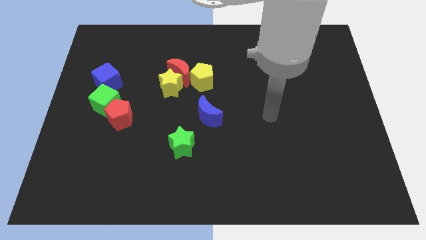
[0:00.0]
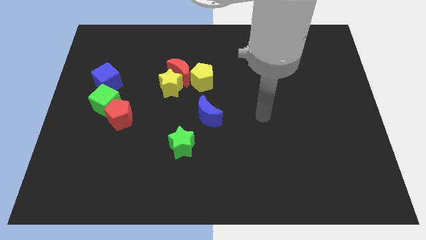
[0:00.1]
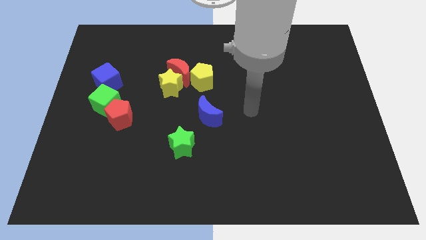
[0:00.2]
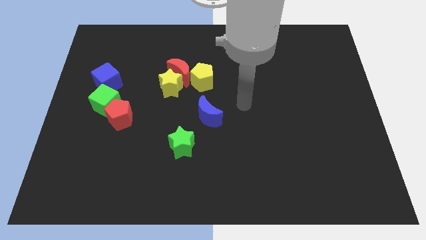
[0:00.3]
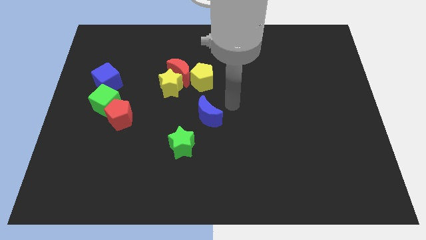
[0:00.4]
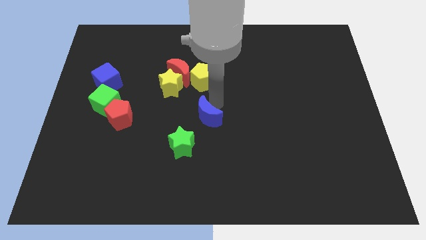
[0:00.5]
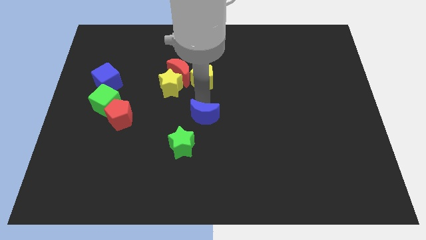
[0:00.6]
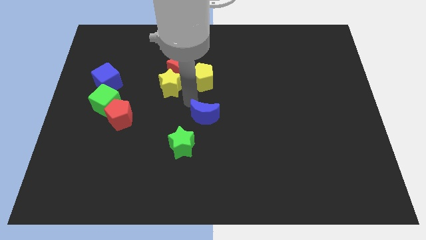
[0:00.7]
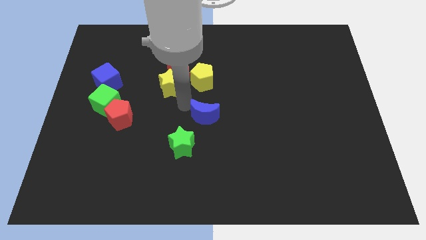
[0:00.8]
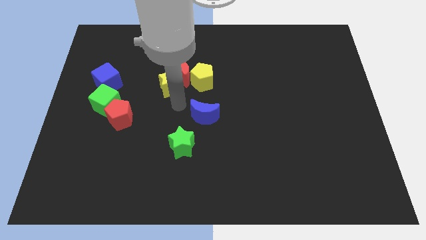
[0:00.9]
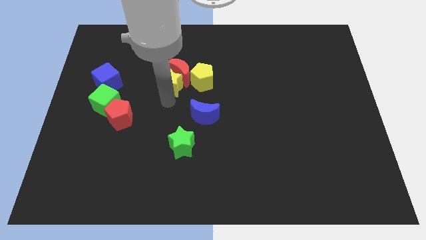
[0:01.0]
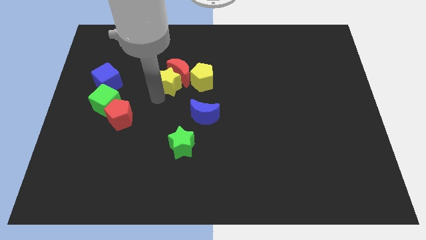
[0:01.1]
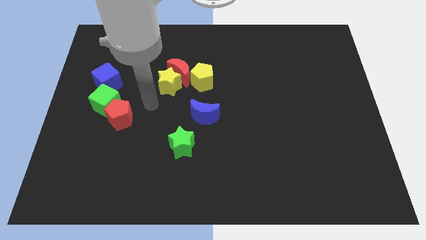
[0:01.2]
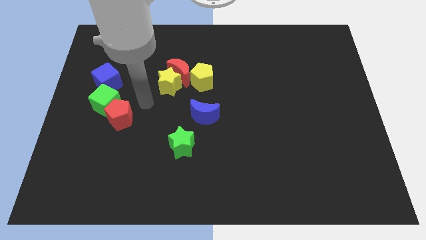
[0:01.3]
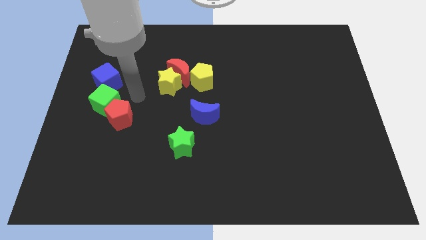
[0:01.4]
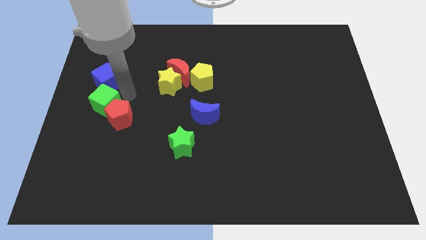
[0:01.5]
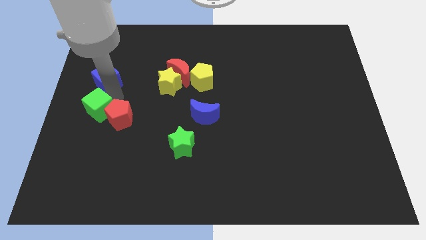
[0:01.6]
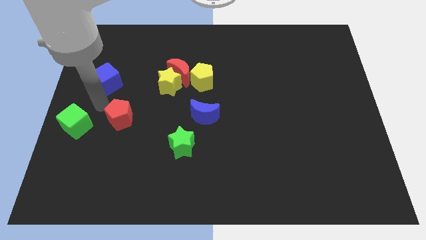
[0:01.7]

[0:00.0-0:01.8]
pull the red pentagon apart from the green cube

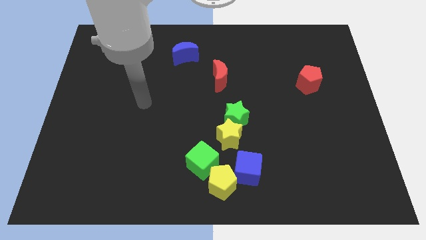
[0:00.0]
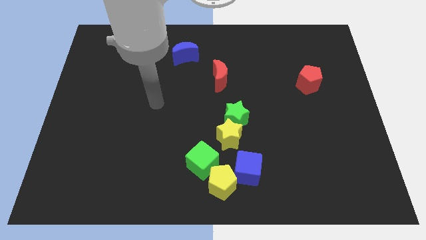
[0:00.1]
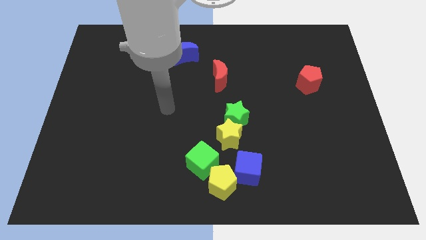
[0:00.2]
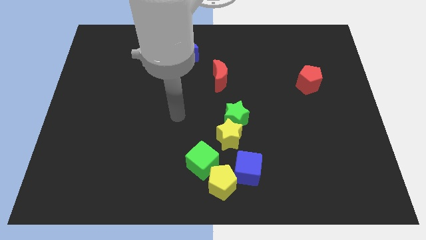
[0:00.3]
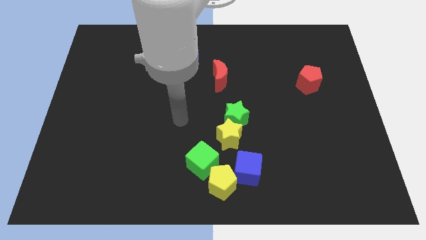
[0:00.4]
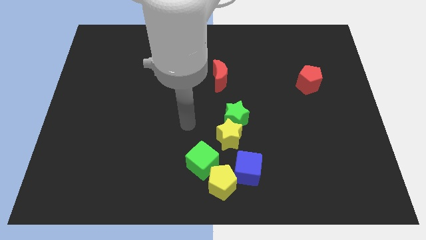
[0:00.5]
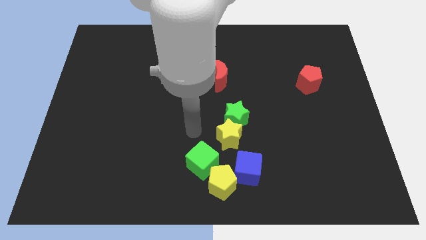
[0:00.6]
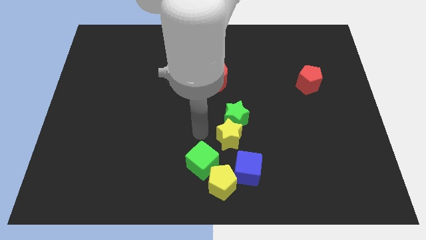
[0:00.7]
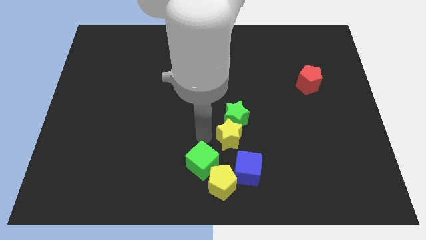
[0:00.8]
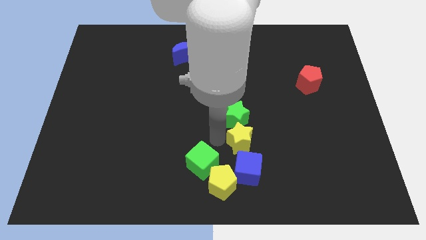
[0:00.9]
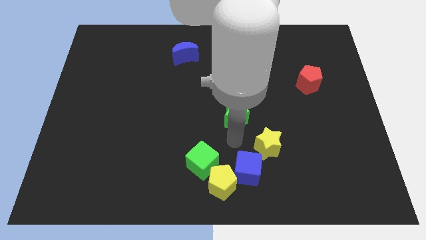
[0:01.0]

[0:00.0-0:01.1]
move the green star away from the yellow star

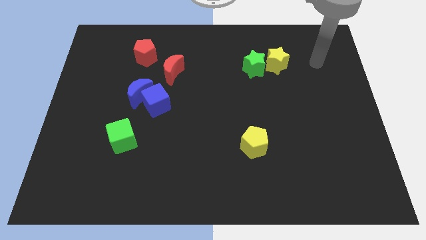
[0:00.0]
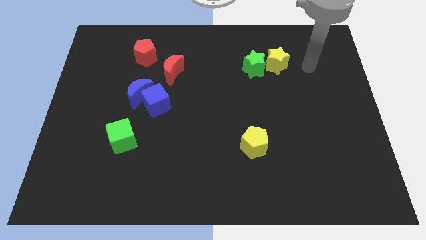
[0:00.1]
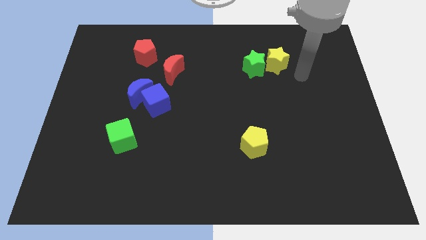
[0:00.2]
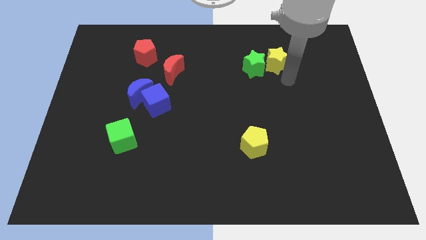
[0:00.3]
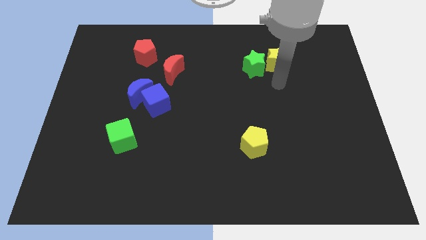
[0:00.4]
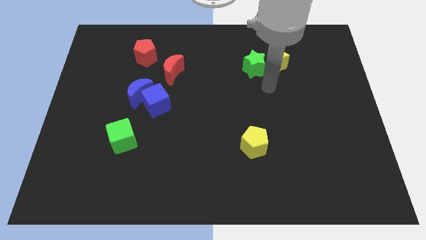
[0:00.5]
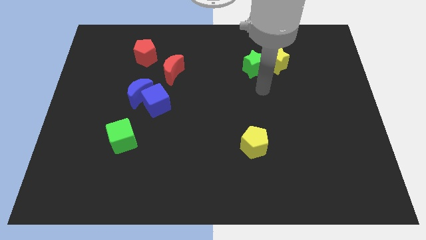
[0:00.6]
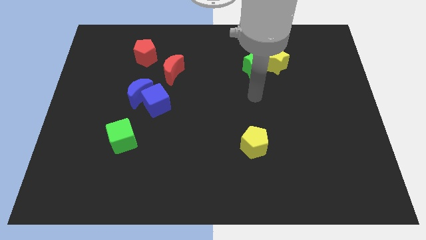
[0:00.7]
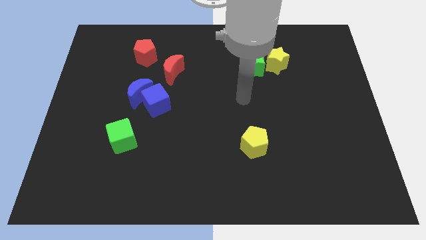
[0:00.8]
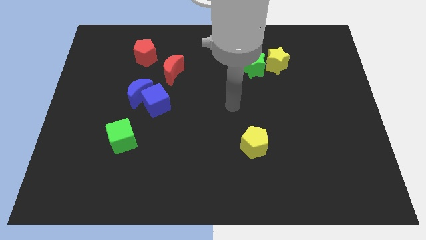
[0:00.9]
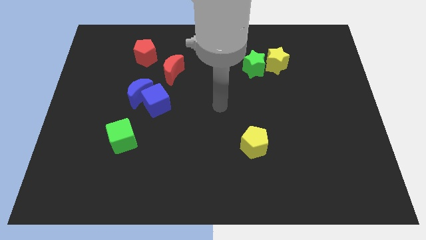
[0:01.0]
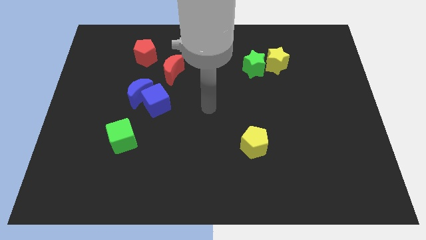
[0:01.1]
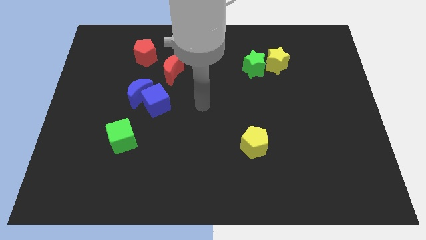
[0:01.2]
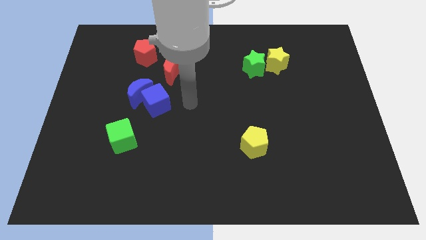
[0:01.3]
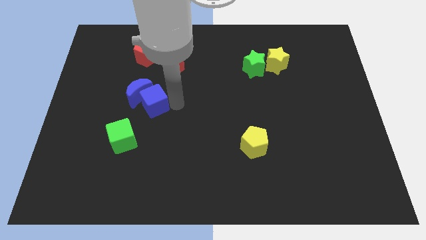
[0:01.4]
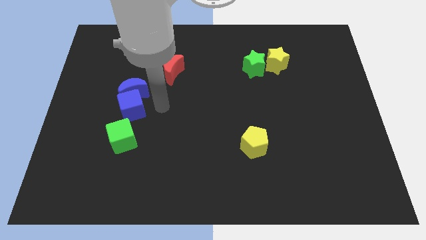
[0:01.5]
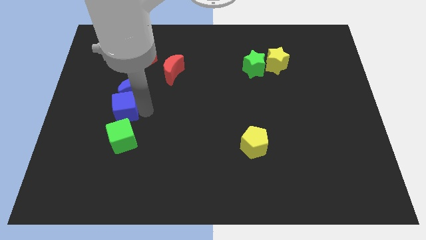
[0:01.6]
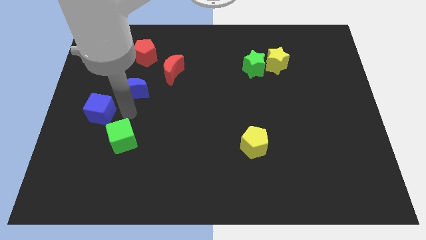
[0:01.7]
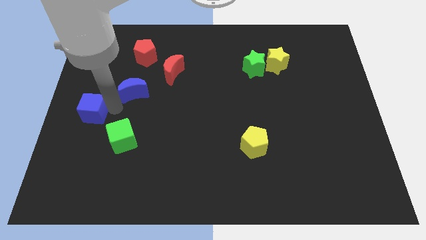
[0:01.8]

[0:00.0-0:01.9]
pull the blue moon apart from the blue cube

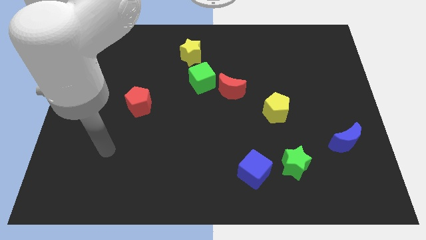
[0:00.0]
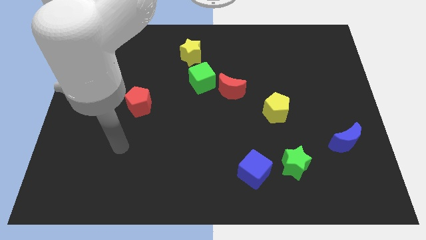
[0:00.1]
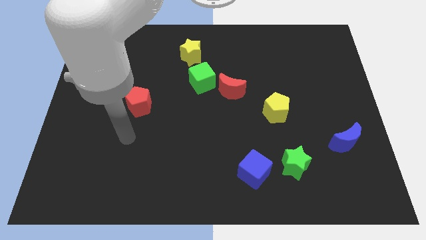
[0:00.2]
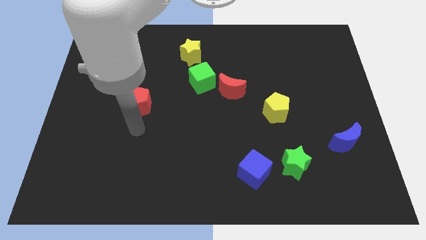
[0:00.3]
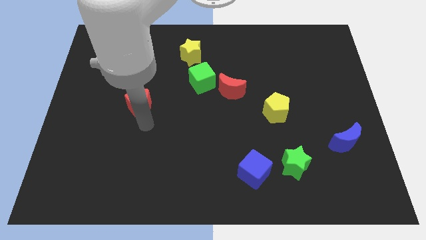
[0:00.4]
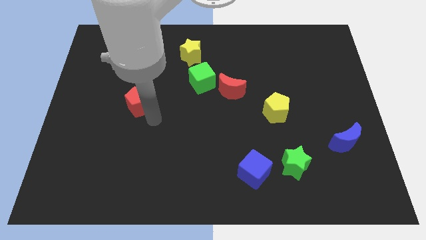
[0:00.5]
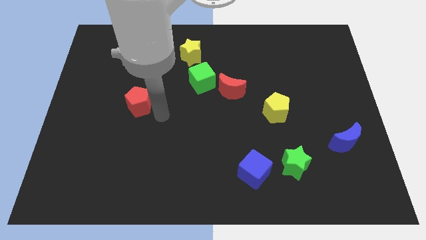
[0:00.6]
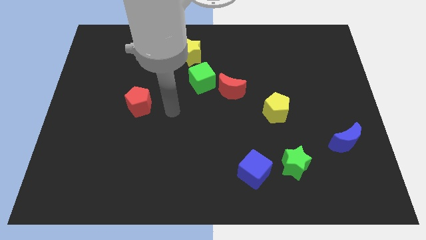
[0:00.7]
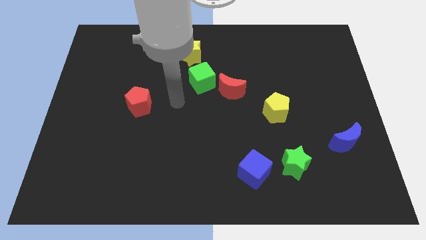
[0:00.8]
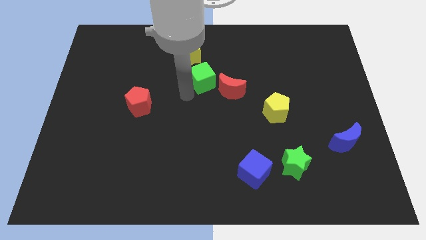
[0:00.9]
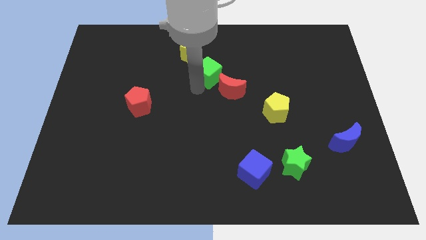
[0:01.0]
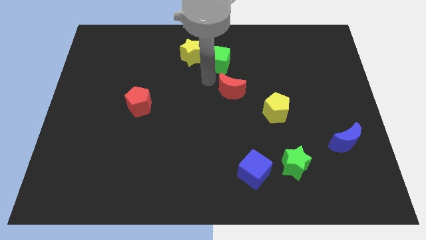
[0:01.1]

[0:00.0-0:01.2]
move the red moon away from the green cube

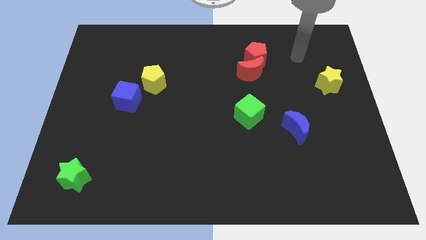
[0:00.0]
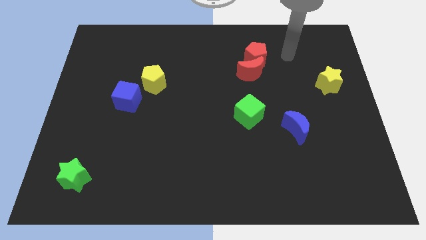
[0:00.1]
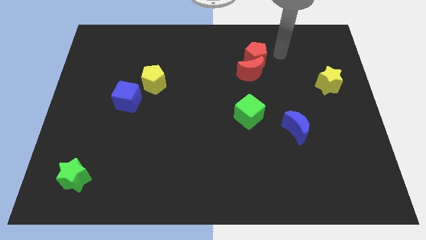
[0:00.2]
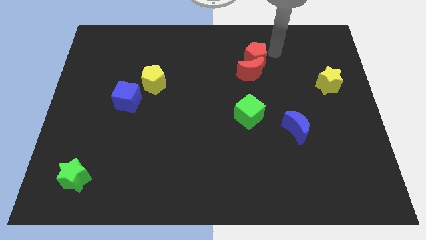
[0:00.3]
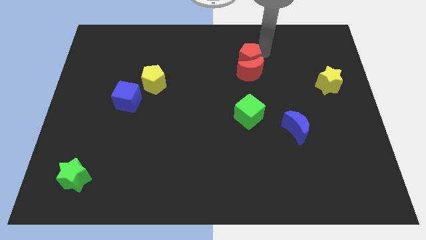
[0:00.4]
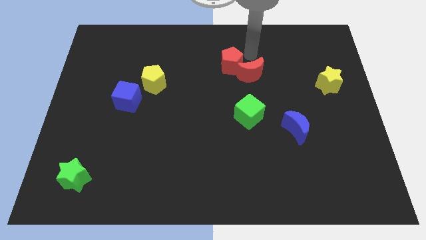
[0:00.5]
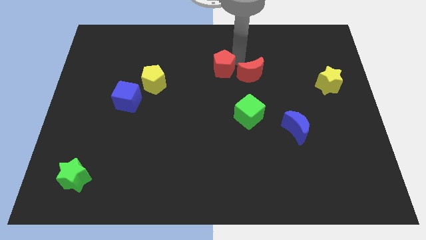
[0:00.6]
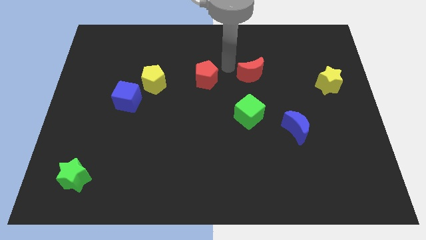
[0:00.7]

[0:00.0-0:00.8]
pull the red moon apart from the red pentagon

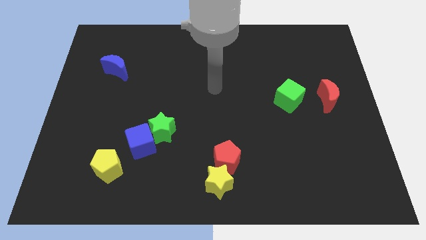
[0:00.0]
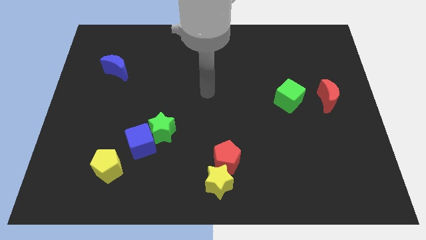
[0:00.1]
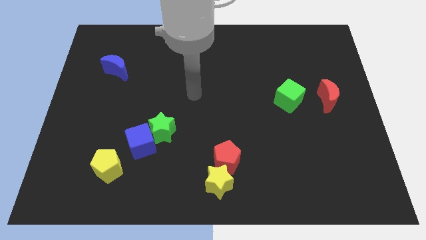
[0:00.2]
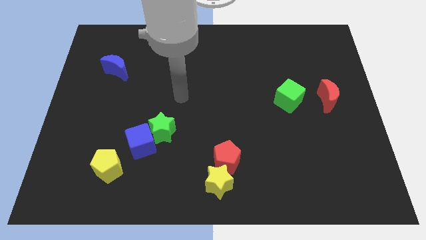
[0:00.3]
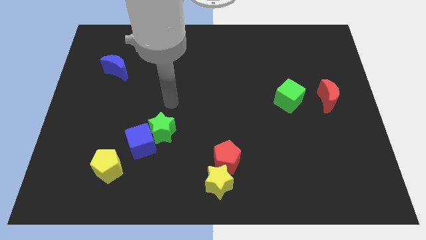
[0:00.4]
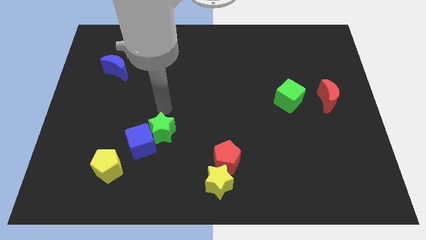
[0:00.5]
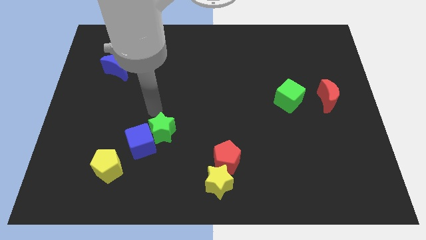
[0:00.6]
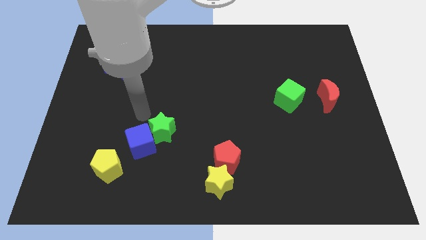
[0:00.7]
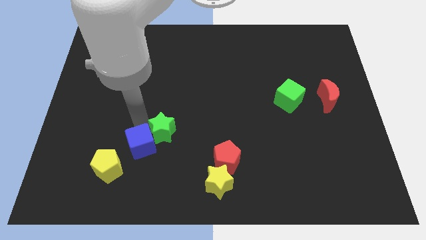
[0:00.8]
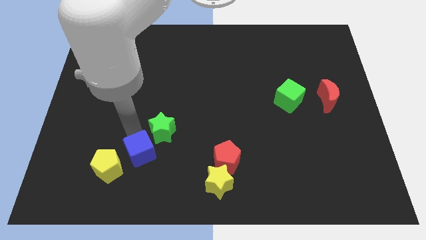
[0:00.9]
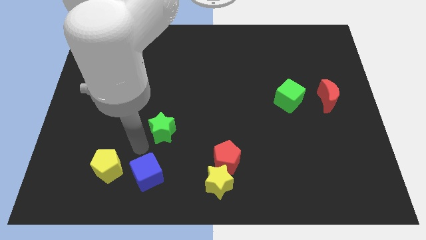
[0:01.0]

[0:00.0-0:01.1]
separate the green star from the blue cube

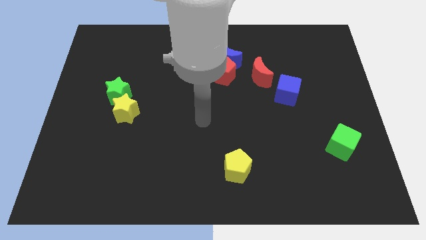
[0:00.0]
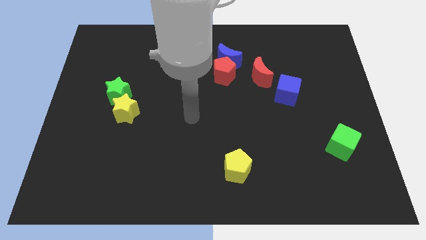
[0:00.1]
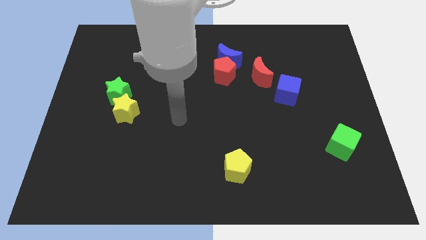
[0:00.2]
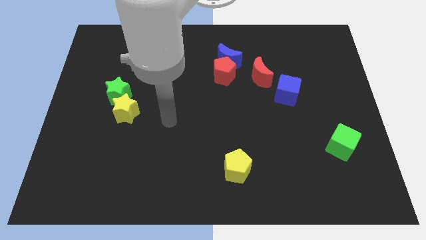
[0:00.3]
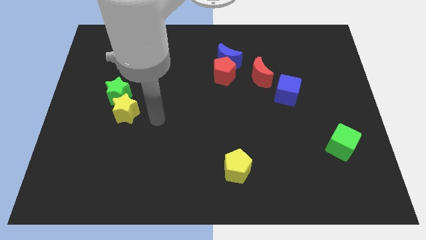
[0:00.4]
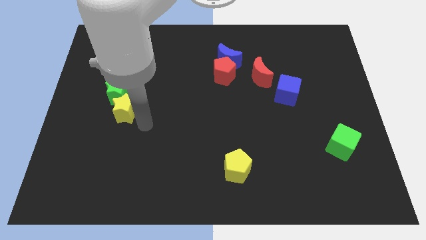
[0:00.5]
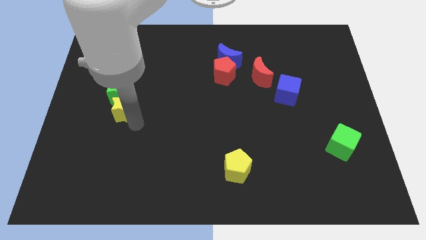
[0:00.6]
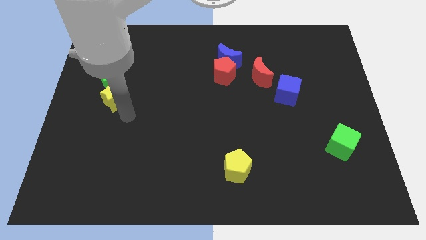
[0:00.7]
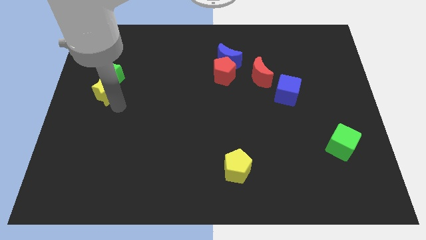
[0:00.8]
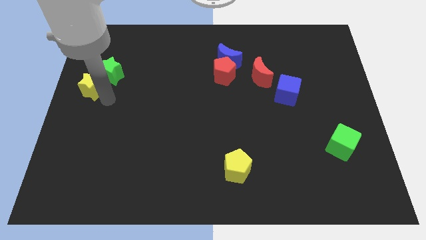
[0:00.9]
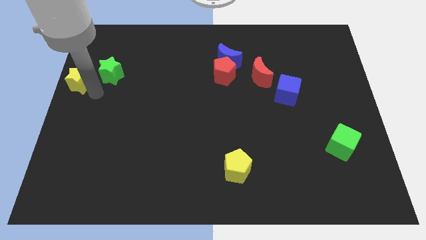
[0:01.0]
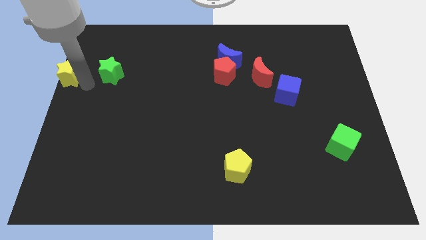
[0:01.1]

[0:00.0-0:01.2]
separate the green star from the yellow star

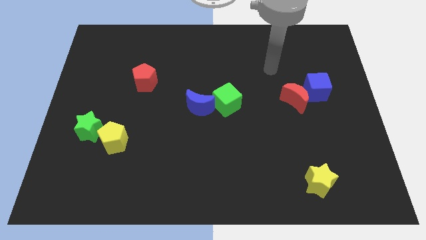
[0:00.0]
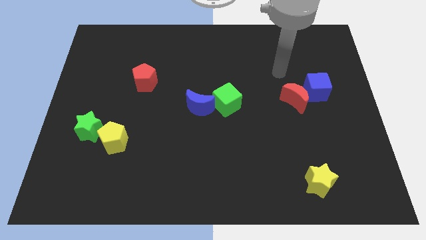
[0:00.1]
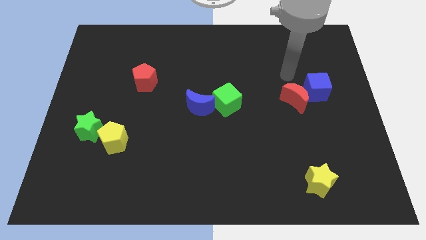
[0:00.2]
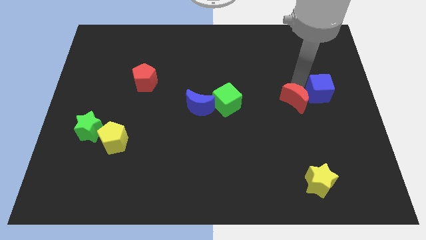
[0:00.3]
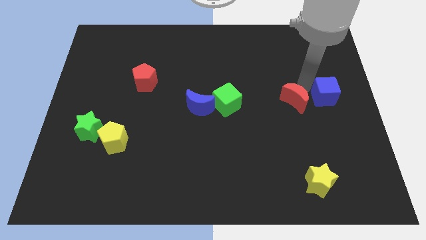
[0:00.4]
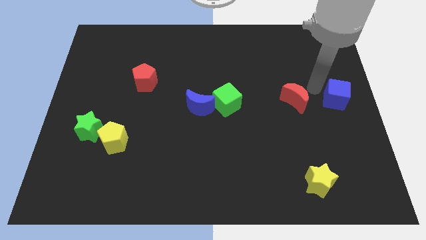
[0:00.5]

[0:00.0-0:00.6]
separate the red moon from the blue cube
